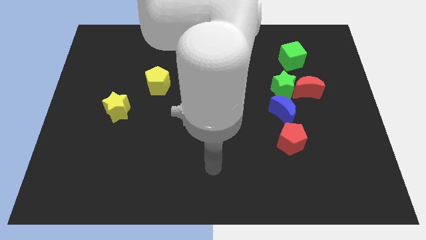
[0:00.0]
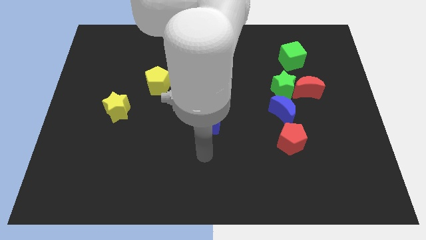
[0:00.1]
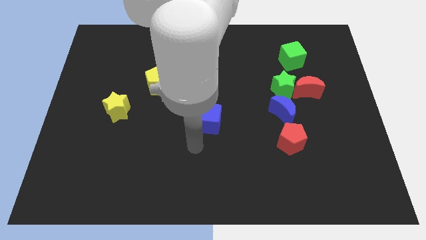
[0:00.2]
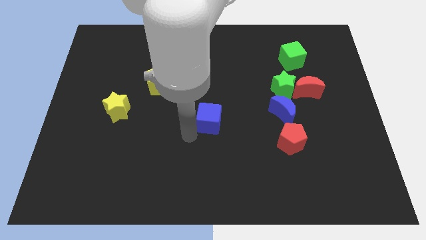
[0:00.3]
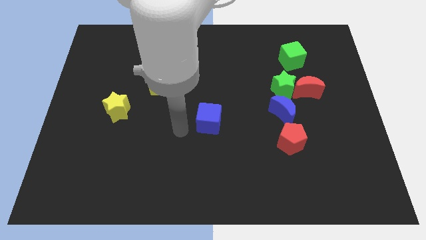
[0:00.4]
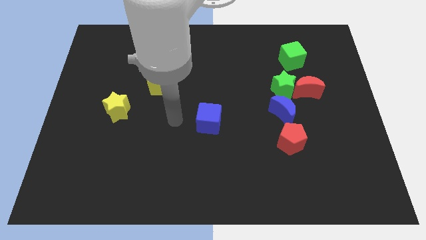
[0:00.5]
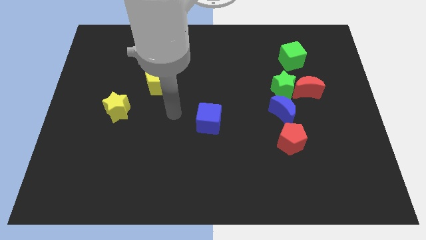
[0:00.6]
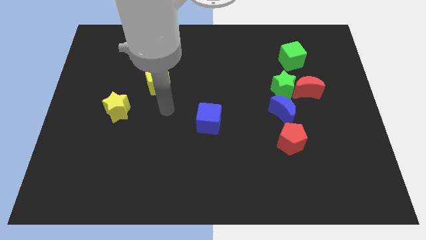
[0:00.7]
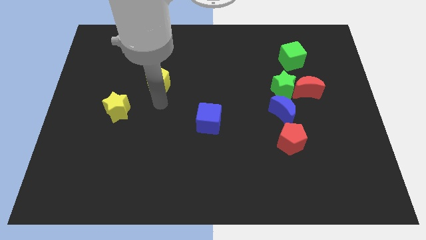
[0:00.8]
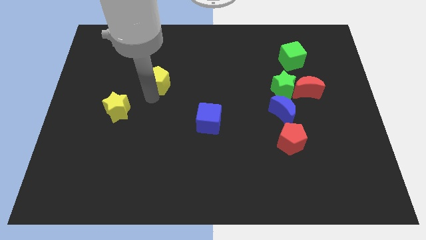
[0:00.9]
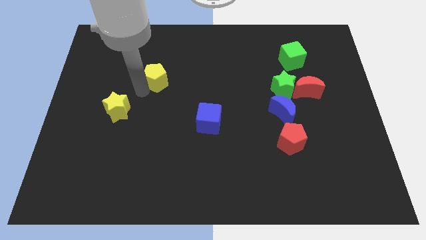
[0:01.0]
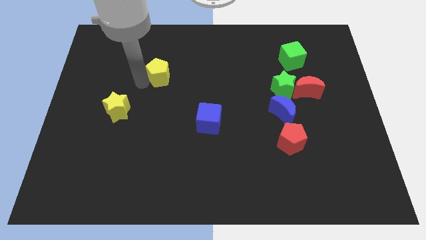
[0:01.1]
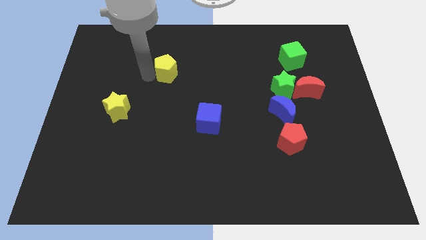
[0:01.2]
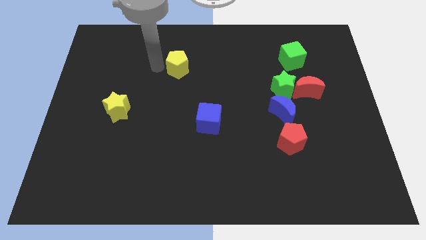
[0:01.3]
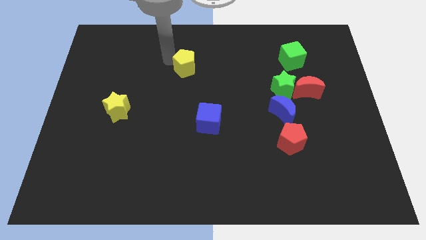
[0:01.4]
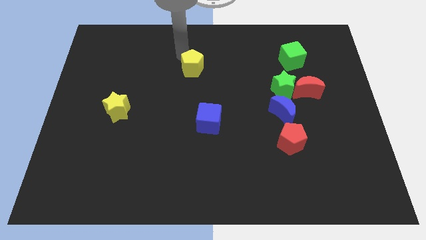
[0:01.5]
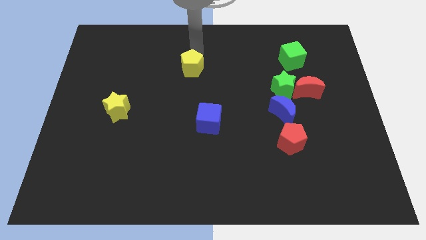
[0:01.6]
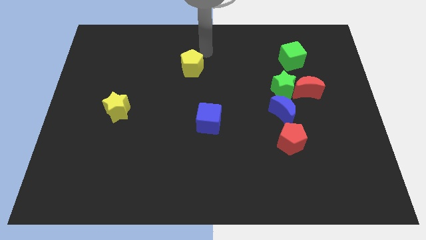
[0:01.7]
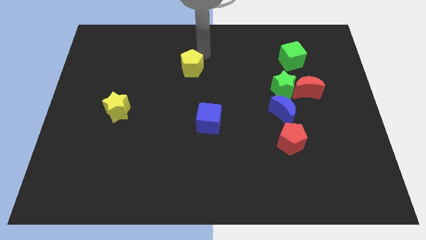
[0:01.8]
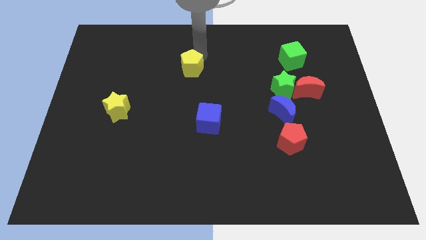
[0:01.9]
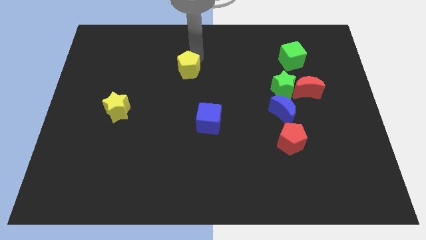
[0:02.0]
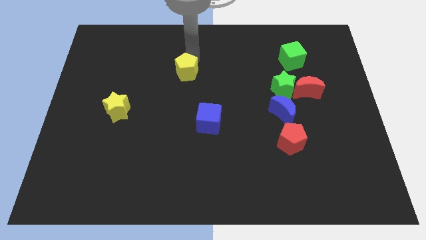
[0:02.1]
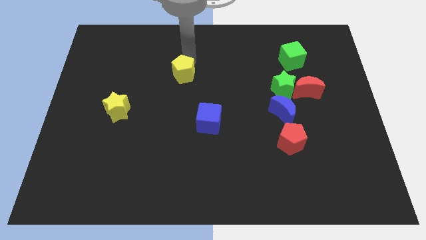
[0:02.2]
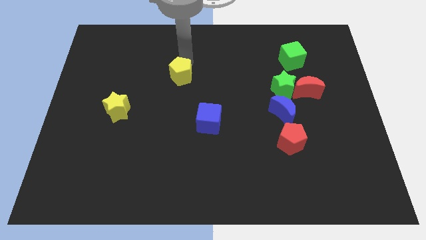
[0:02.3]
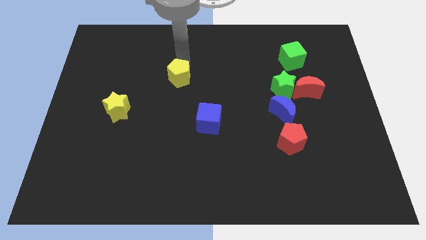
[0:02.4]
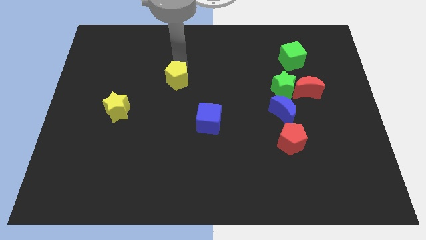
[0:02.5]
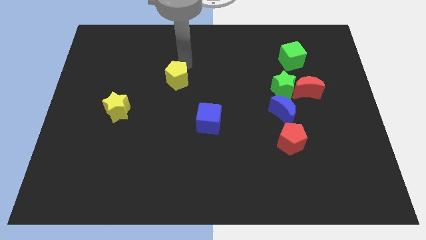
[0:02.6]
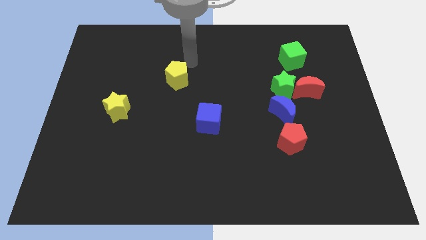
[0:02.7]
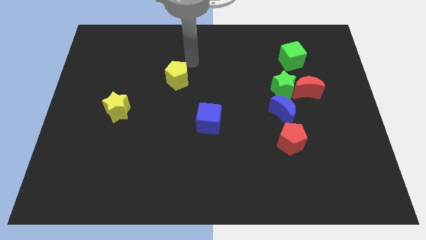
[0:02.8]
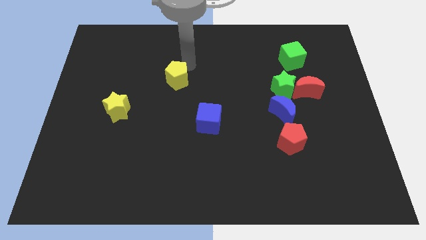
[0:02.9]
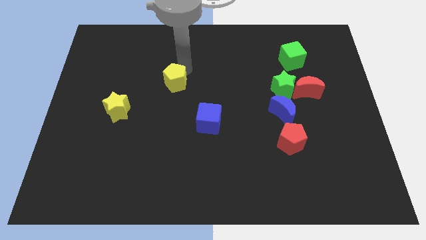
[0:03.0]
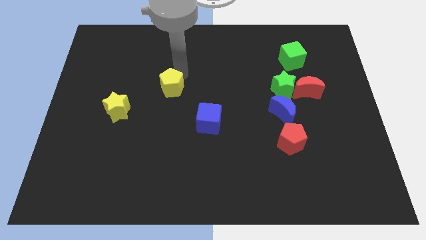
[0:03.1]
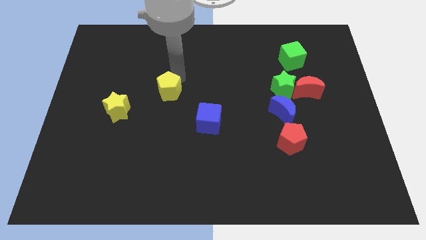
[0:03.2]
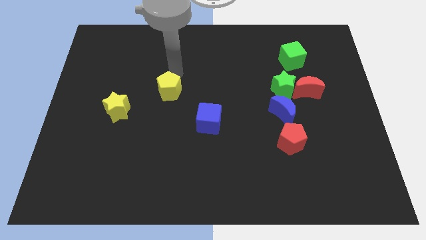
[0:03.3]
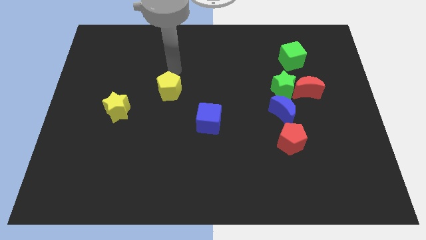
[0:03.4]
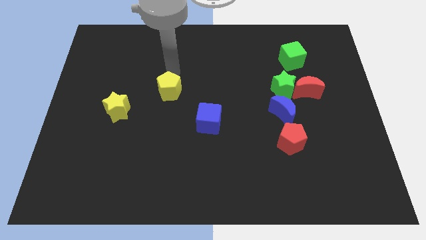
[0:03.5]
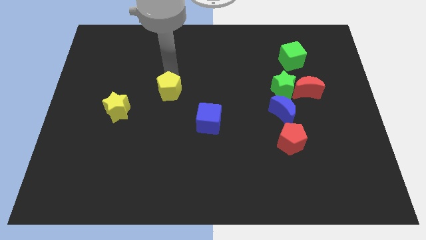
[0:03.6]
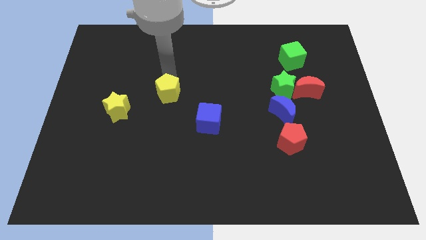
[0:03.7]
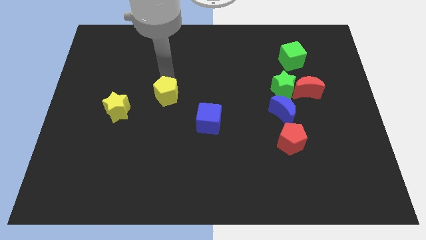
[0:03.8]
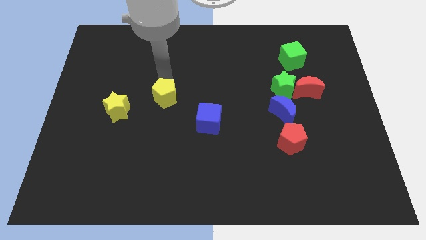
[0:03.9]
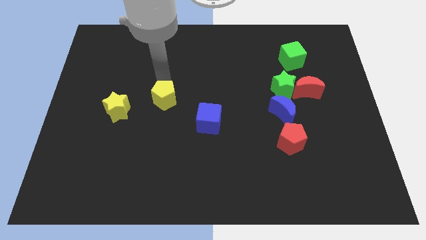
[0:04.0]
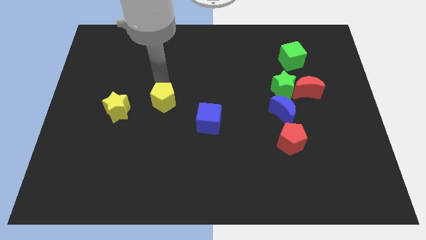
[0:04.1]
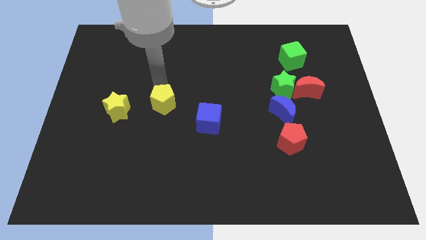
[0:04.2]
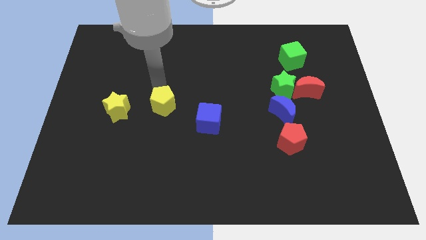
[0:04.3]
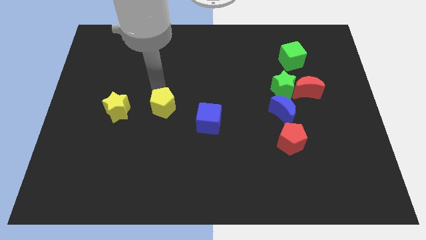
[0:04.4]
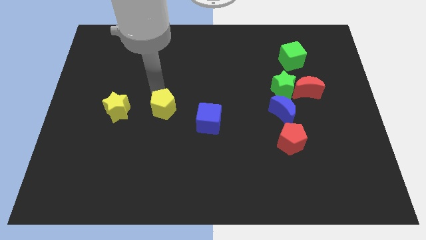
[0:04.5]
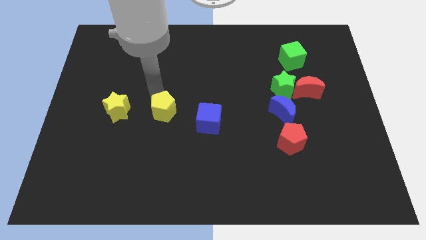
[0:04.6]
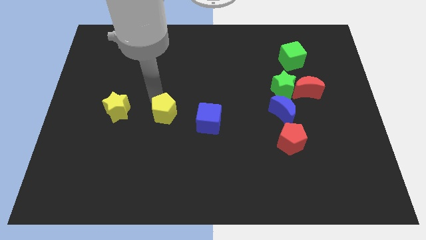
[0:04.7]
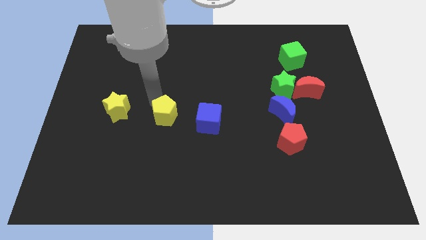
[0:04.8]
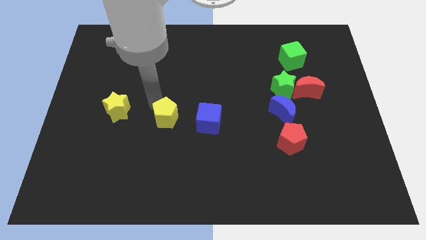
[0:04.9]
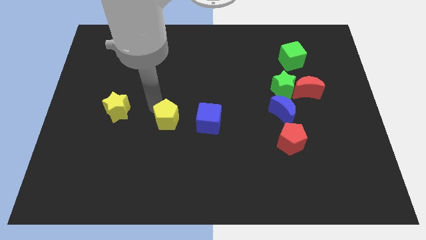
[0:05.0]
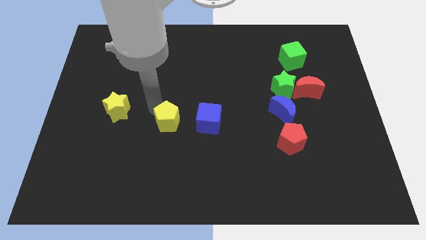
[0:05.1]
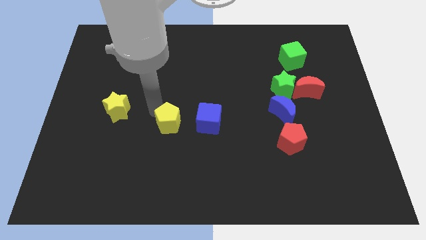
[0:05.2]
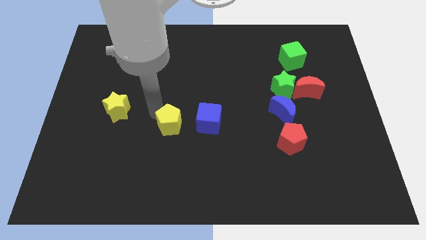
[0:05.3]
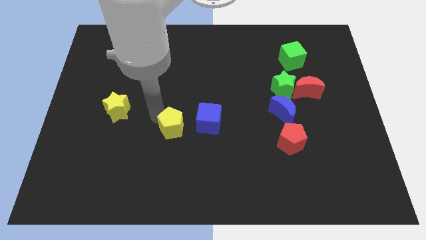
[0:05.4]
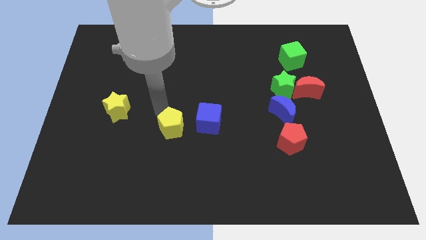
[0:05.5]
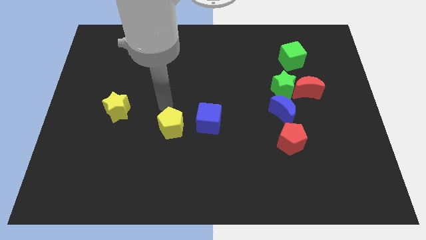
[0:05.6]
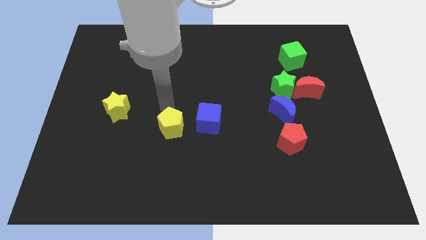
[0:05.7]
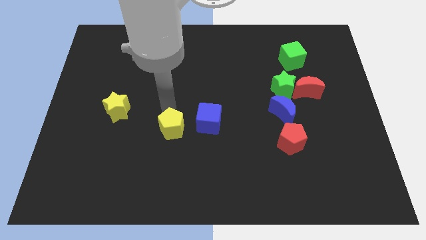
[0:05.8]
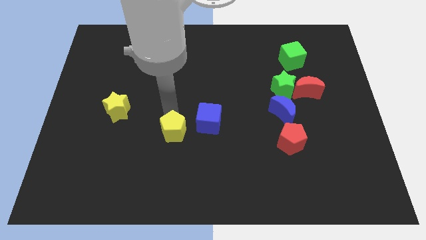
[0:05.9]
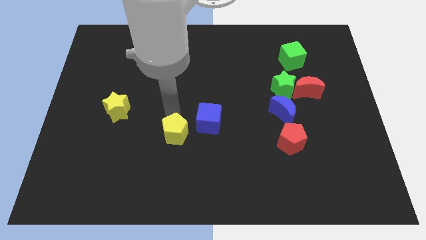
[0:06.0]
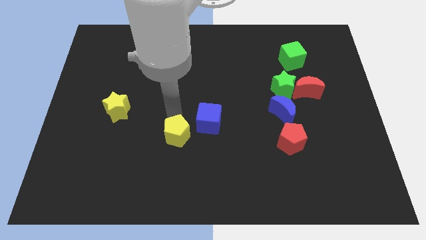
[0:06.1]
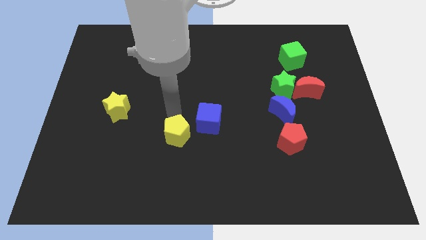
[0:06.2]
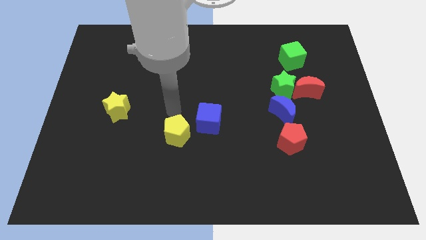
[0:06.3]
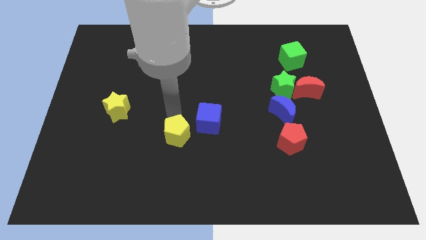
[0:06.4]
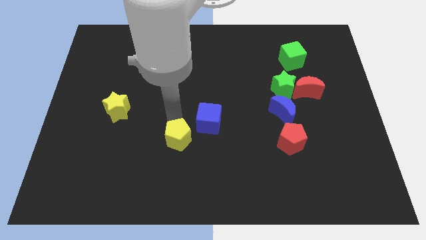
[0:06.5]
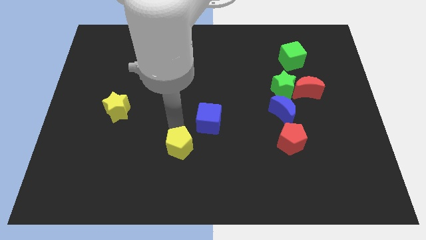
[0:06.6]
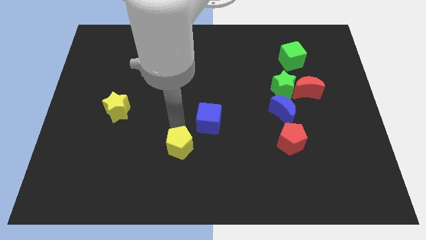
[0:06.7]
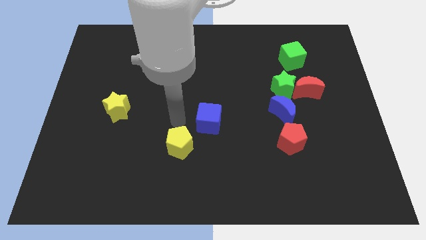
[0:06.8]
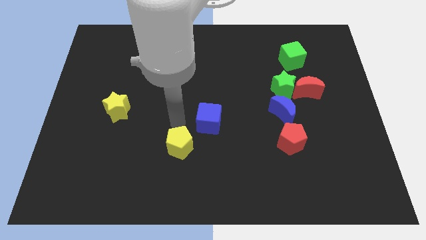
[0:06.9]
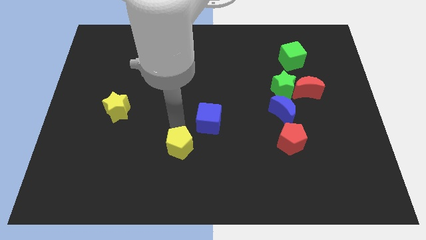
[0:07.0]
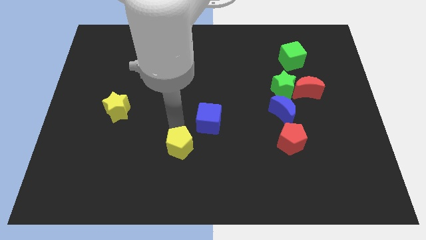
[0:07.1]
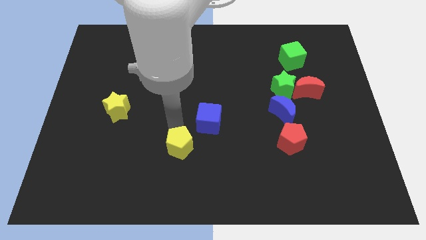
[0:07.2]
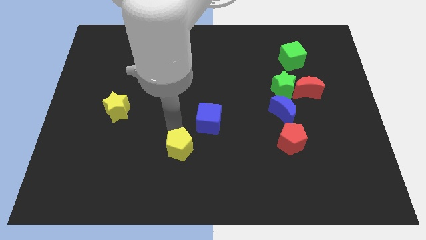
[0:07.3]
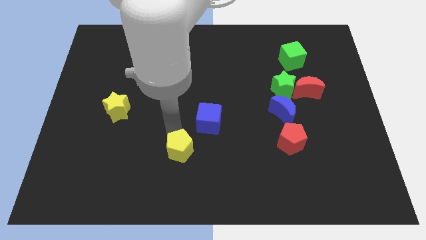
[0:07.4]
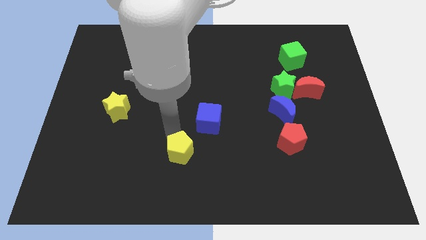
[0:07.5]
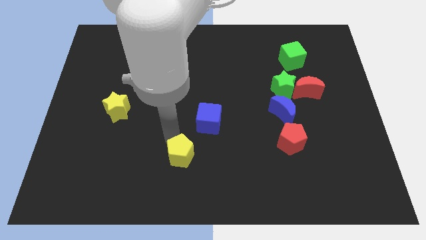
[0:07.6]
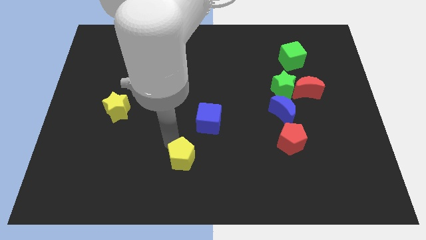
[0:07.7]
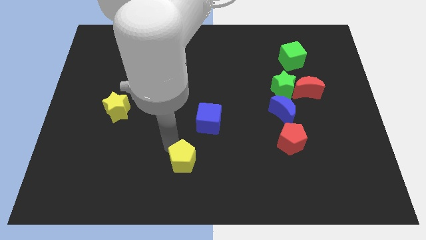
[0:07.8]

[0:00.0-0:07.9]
push the yellow pentagon to the bottom side
